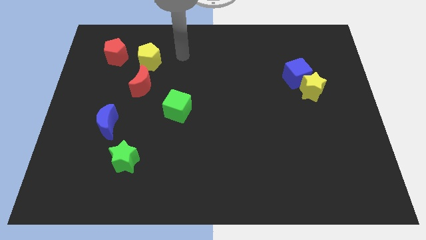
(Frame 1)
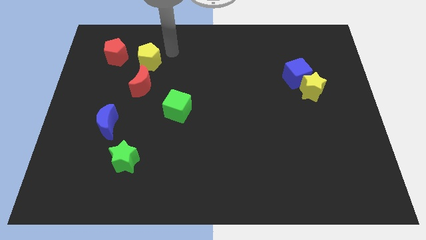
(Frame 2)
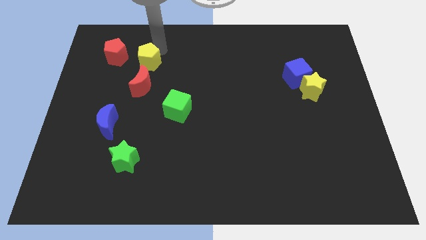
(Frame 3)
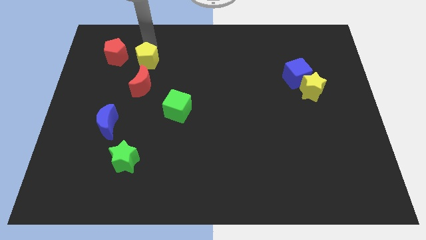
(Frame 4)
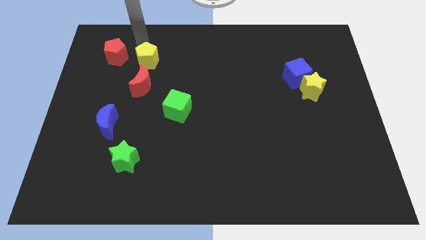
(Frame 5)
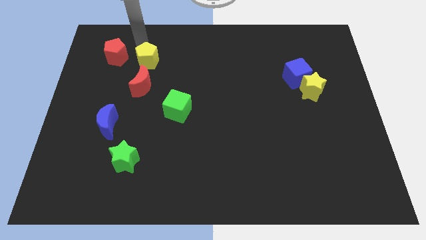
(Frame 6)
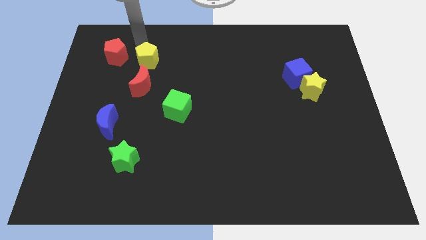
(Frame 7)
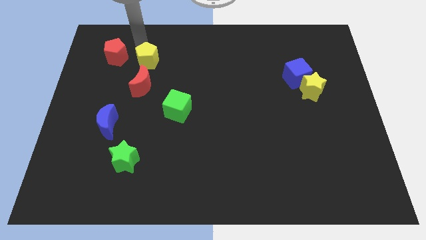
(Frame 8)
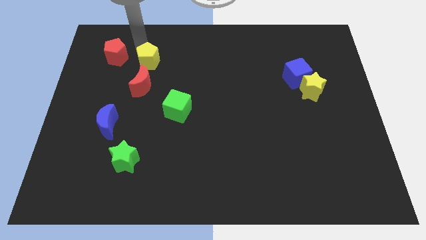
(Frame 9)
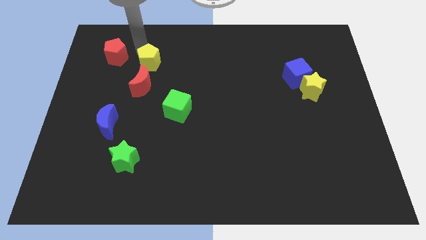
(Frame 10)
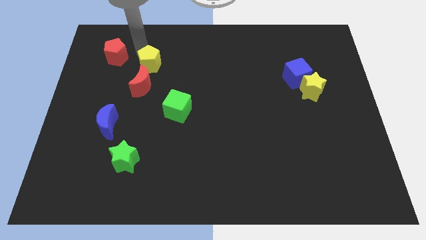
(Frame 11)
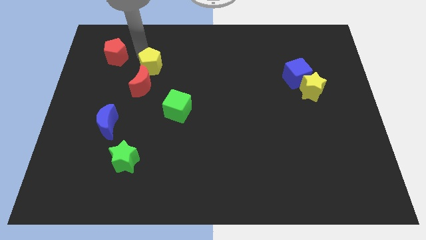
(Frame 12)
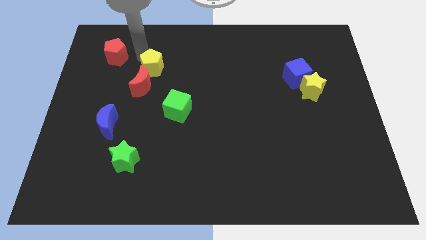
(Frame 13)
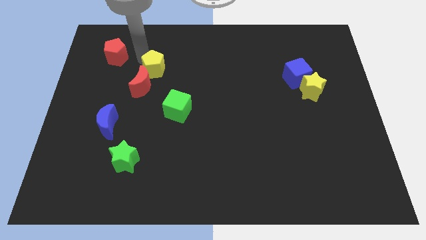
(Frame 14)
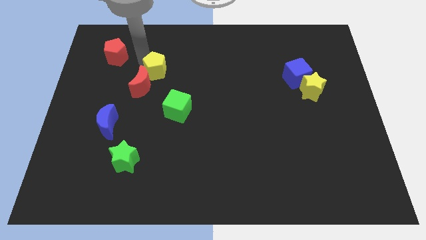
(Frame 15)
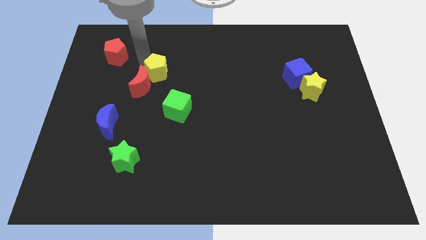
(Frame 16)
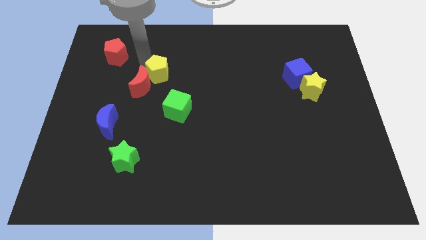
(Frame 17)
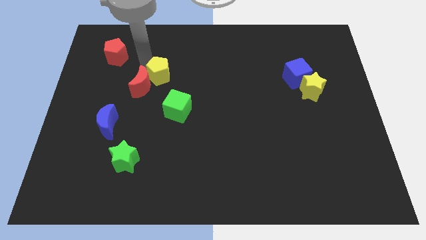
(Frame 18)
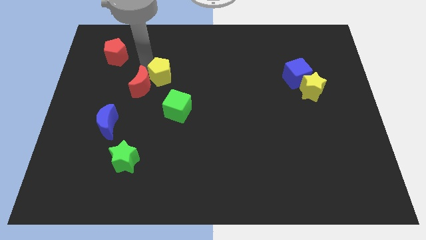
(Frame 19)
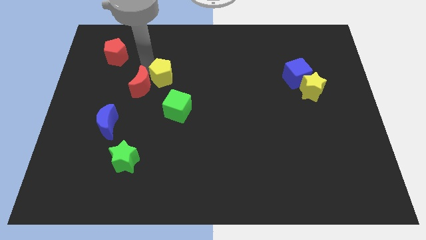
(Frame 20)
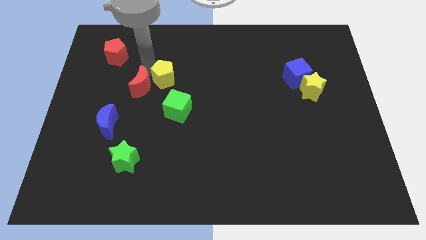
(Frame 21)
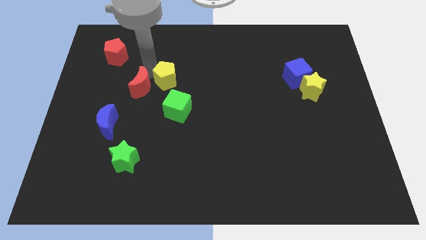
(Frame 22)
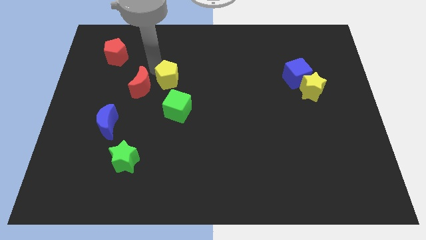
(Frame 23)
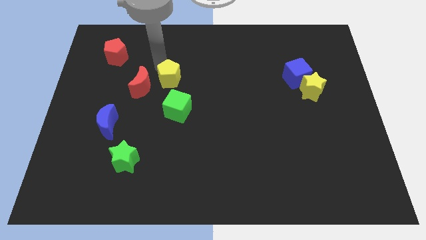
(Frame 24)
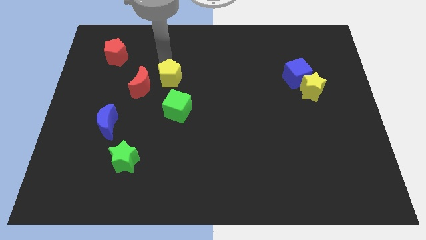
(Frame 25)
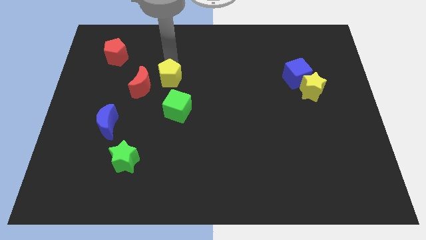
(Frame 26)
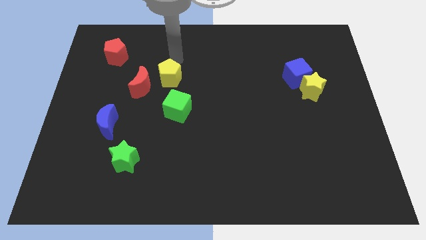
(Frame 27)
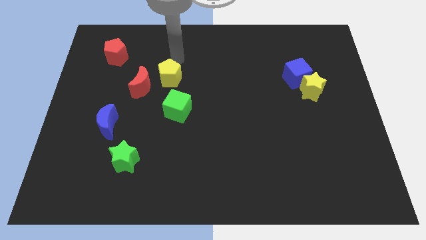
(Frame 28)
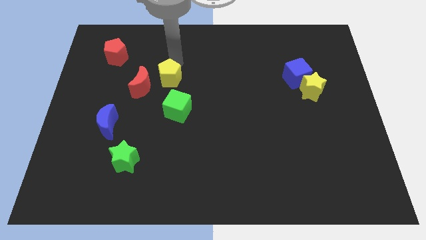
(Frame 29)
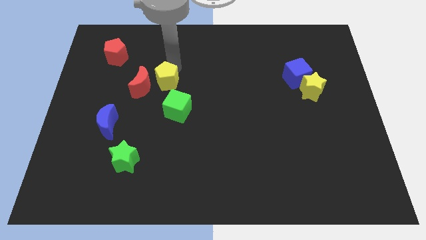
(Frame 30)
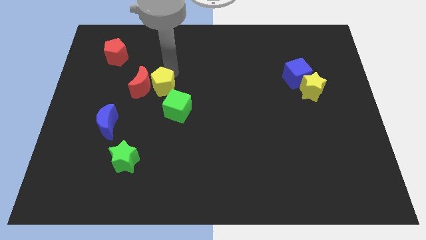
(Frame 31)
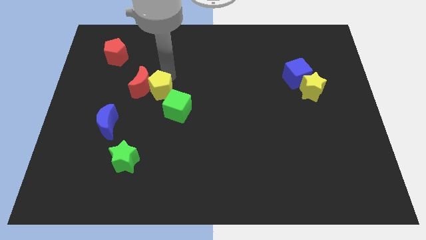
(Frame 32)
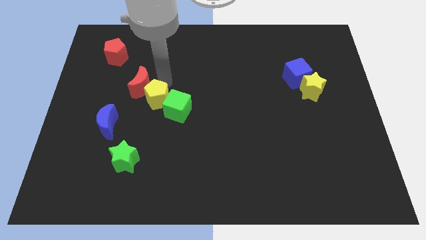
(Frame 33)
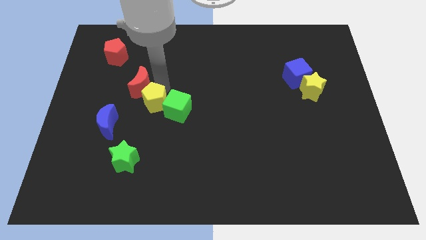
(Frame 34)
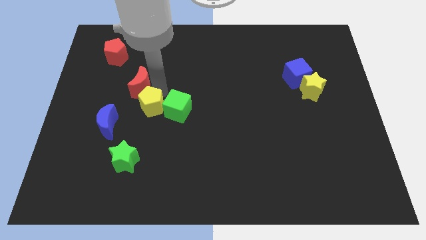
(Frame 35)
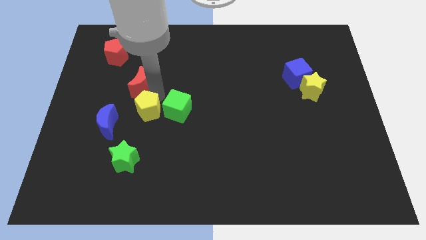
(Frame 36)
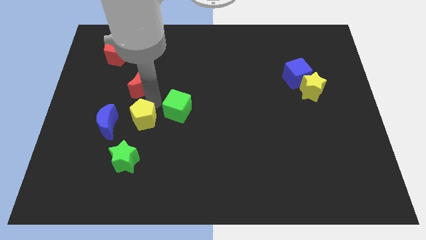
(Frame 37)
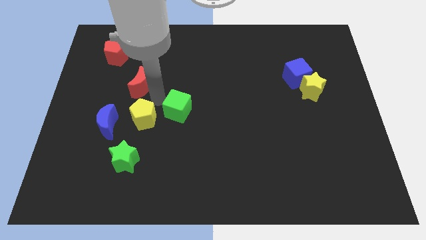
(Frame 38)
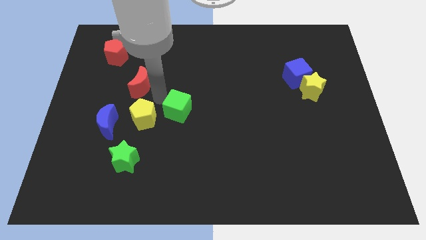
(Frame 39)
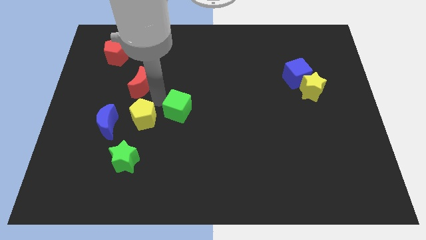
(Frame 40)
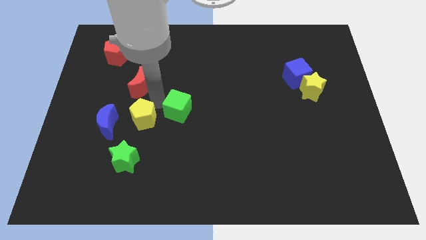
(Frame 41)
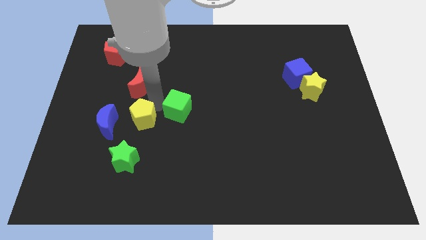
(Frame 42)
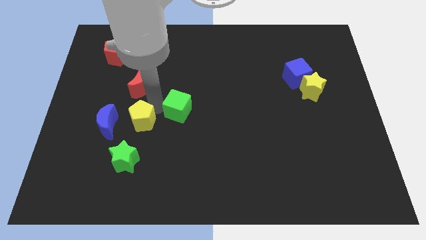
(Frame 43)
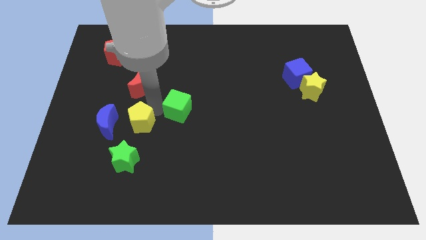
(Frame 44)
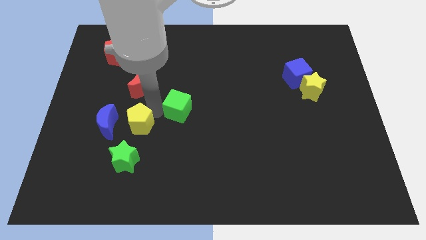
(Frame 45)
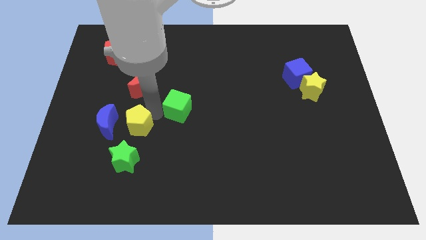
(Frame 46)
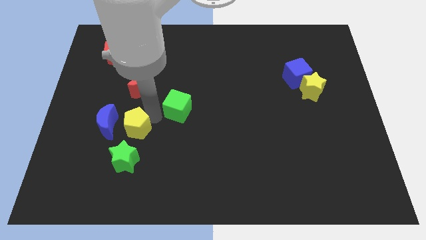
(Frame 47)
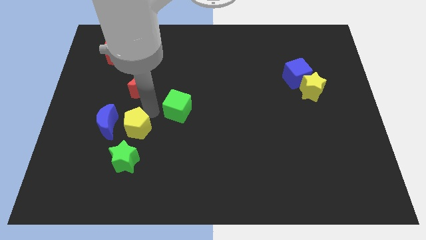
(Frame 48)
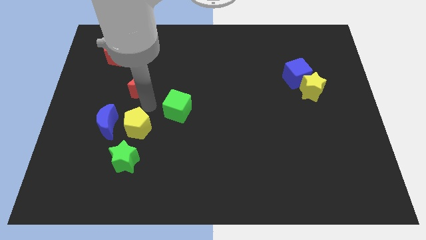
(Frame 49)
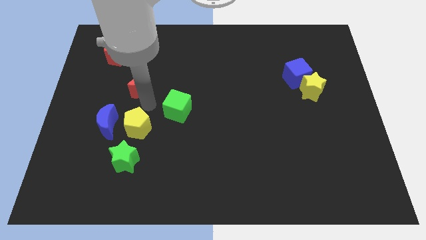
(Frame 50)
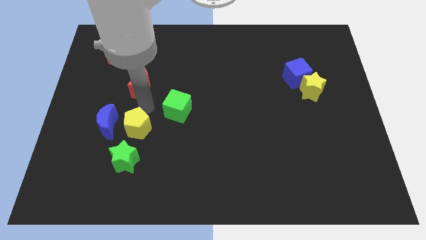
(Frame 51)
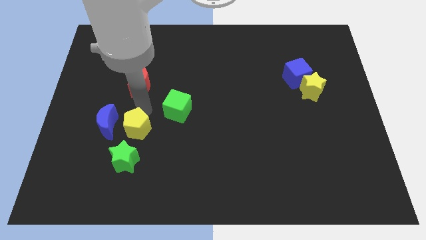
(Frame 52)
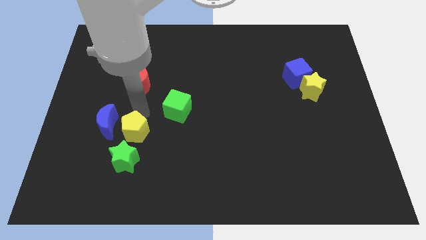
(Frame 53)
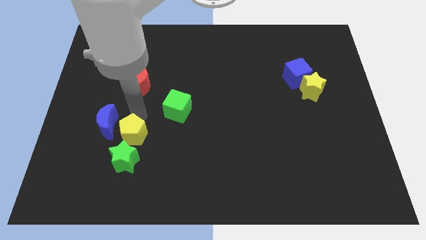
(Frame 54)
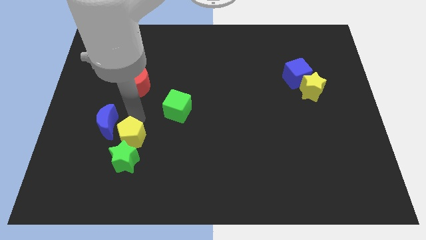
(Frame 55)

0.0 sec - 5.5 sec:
put the yellow pentagon close to the green star

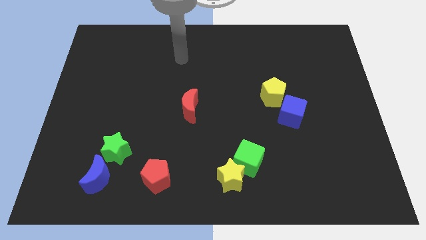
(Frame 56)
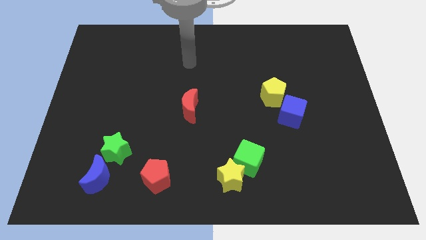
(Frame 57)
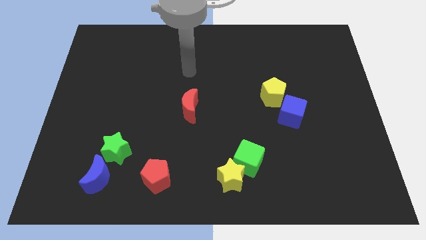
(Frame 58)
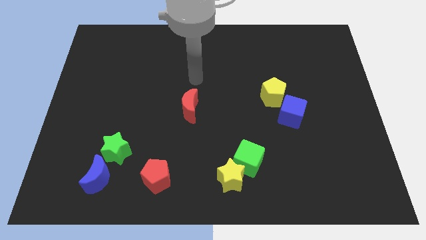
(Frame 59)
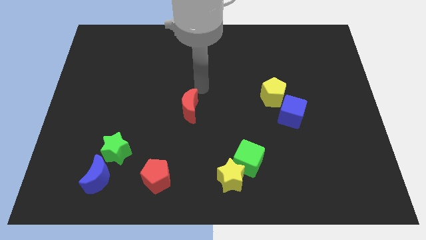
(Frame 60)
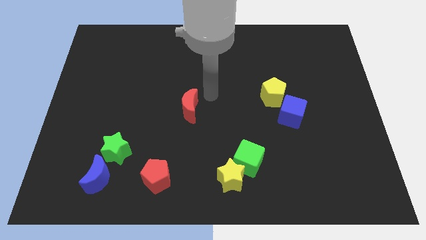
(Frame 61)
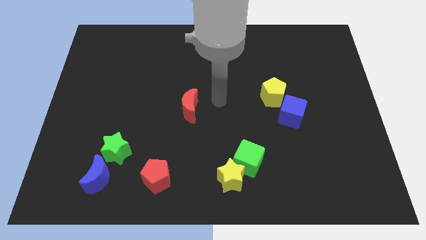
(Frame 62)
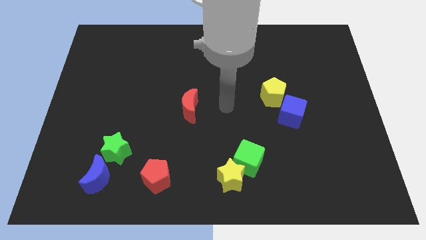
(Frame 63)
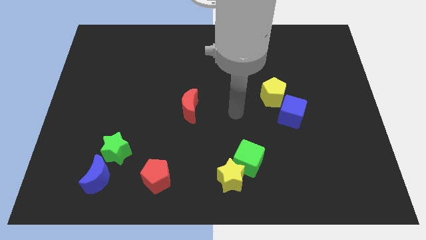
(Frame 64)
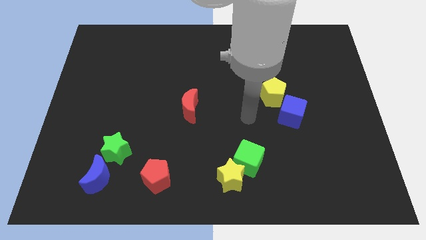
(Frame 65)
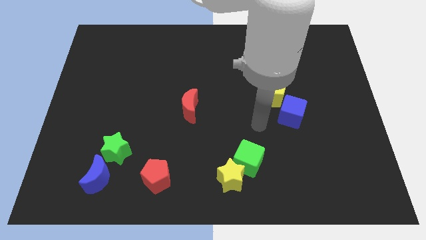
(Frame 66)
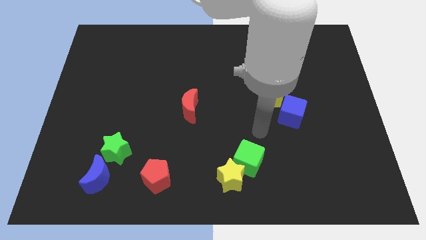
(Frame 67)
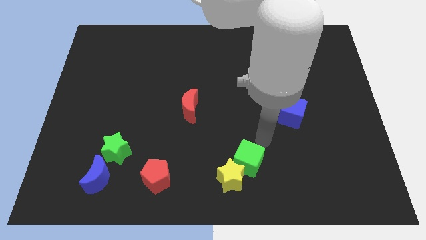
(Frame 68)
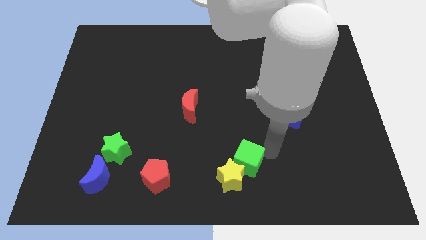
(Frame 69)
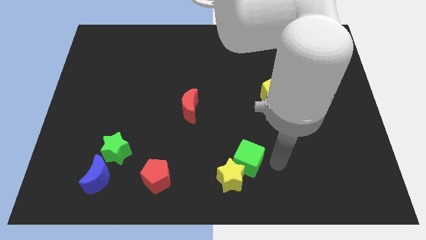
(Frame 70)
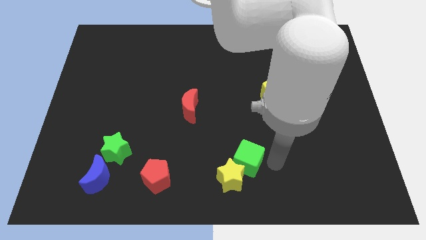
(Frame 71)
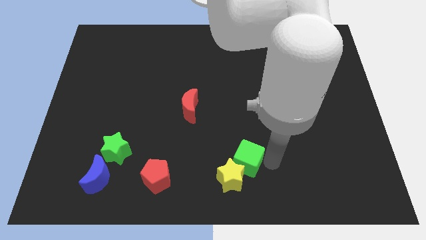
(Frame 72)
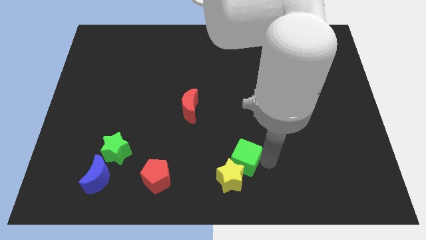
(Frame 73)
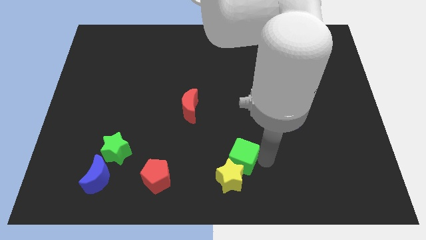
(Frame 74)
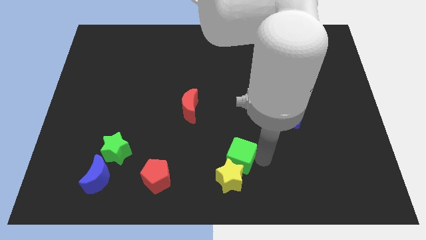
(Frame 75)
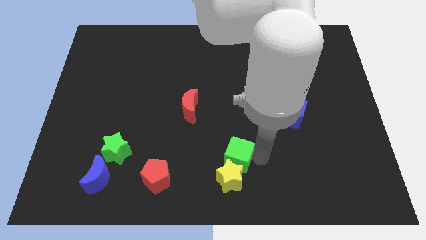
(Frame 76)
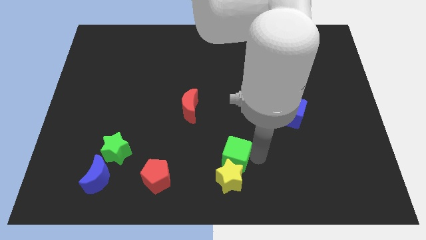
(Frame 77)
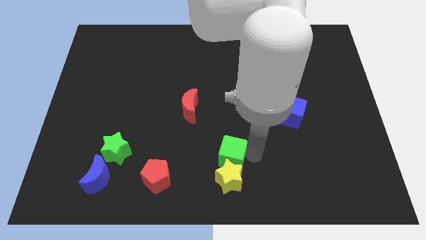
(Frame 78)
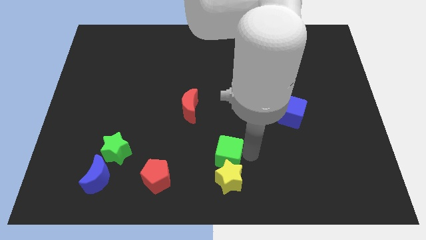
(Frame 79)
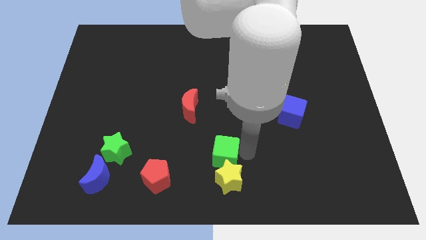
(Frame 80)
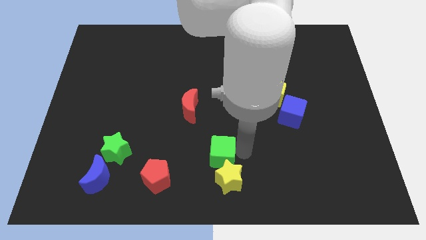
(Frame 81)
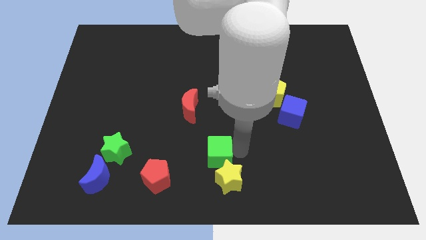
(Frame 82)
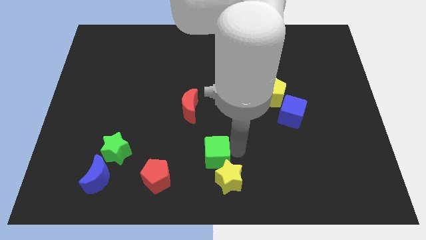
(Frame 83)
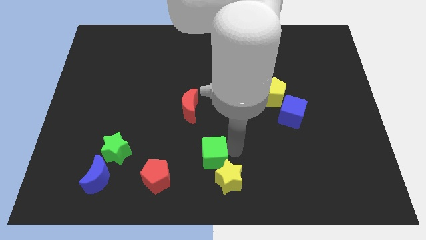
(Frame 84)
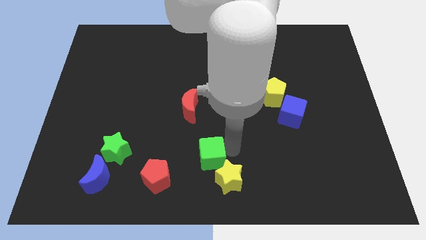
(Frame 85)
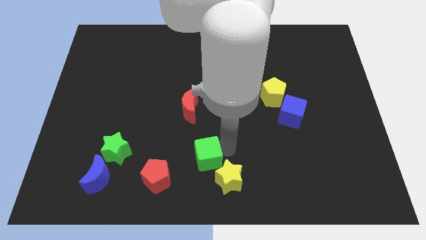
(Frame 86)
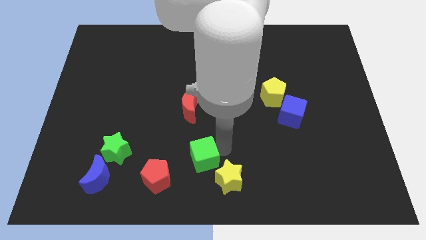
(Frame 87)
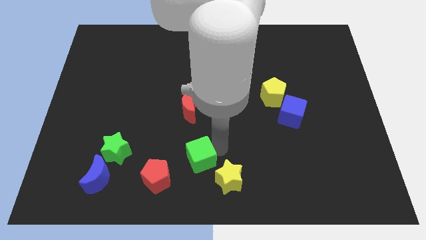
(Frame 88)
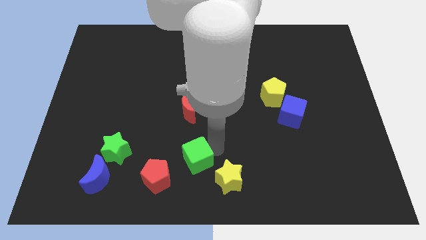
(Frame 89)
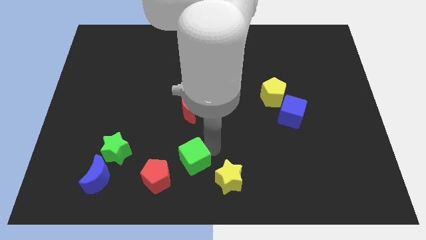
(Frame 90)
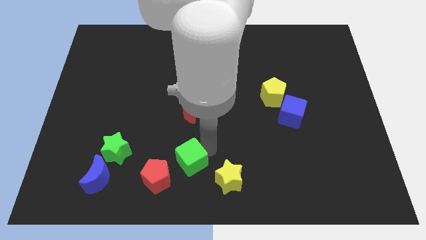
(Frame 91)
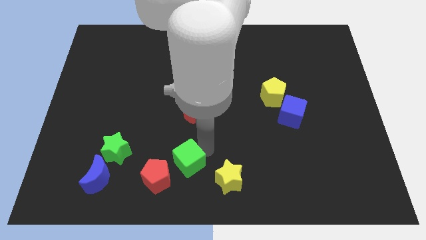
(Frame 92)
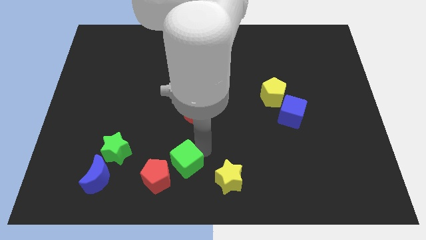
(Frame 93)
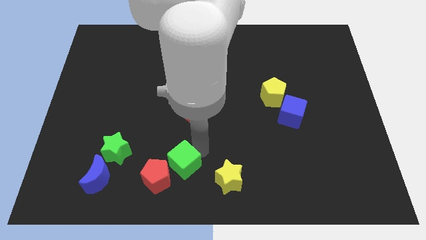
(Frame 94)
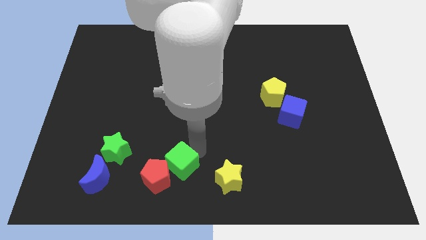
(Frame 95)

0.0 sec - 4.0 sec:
slide the green cube towards the red pentagon
